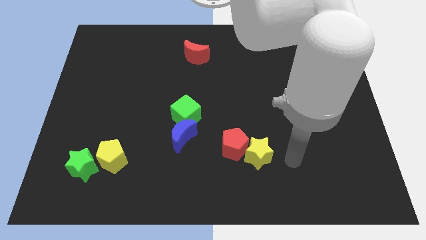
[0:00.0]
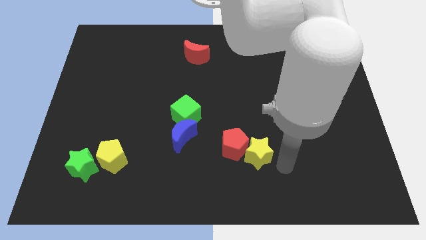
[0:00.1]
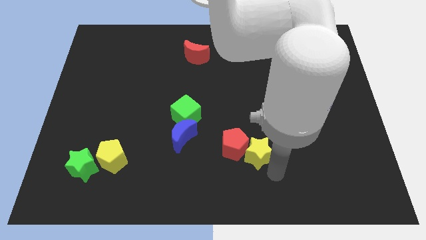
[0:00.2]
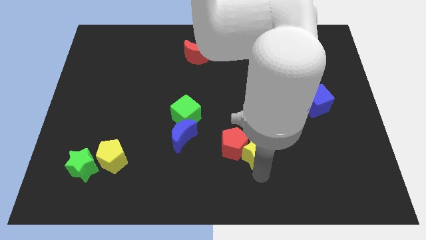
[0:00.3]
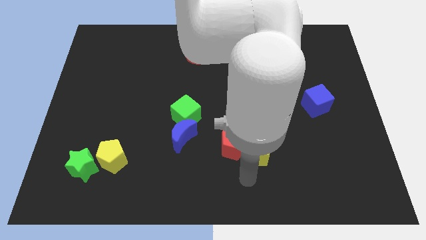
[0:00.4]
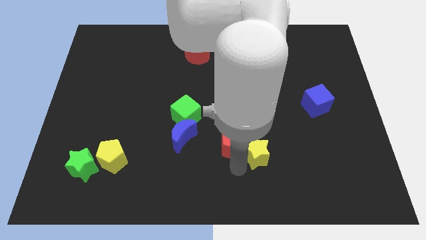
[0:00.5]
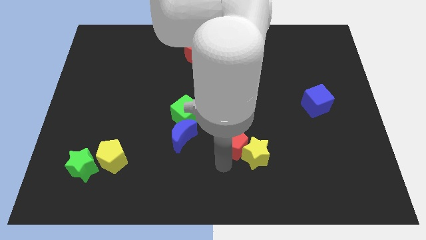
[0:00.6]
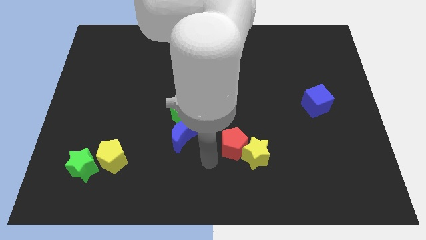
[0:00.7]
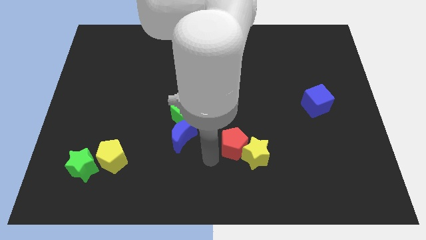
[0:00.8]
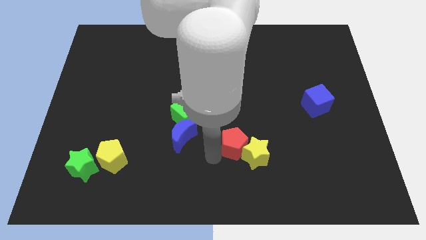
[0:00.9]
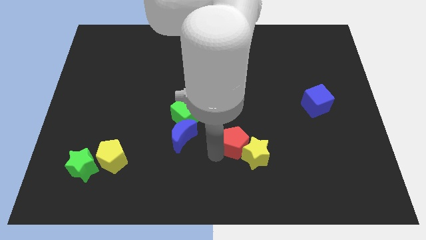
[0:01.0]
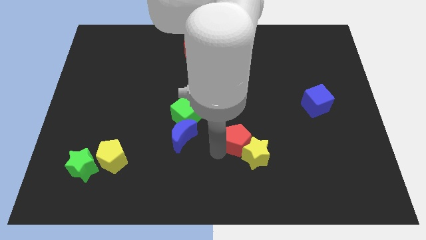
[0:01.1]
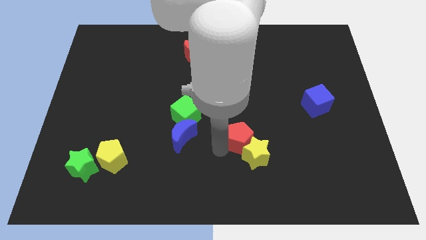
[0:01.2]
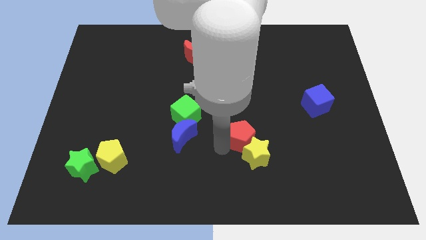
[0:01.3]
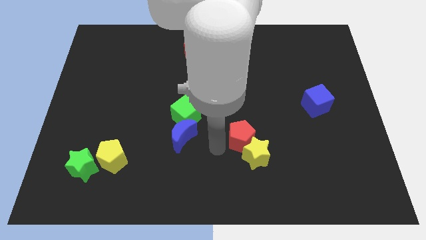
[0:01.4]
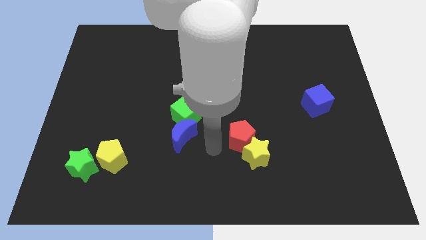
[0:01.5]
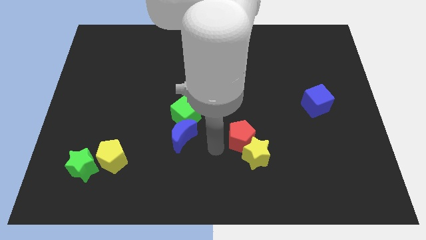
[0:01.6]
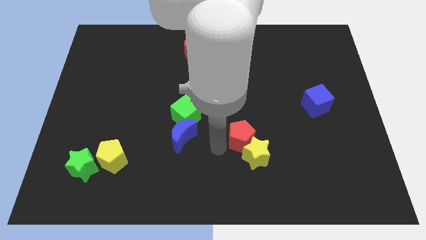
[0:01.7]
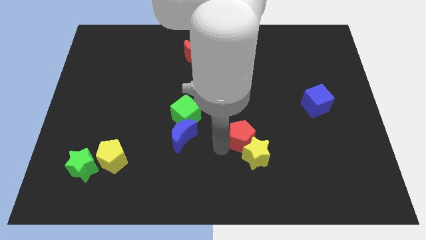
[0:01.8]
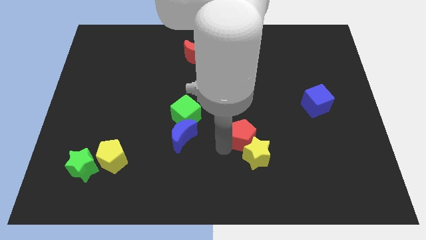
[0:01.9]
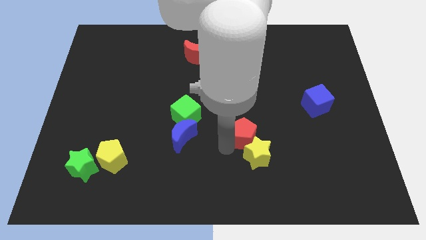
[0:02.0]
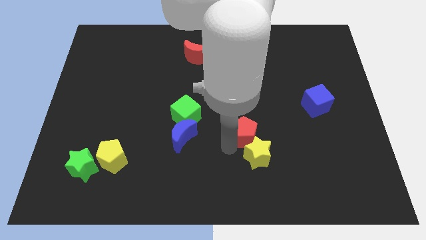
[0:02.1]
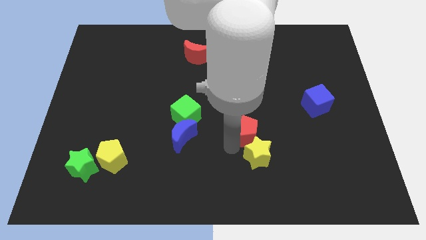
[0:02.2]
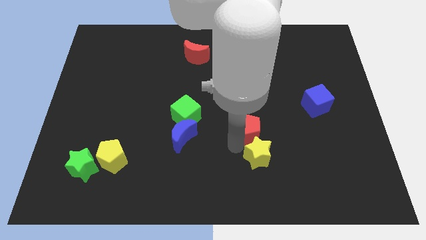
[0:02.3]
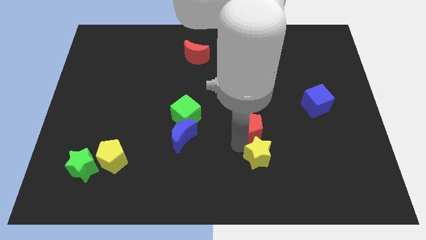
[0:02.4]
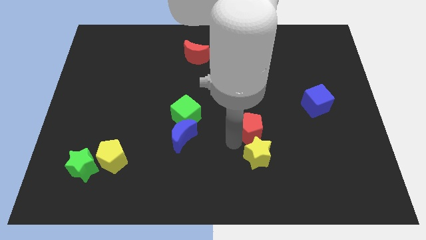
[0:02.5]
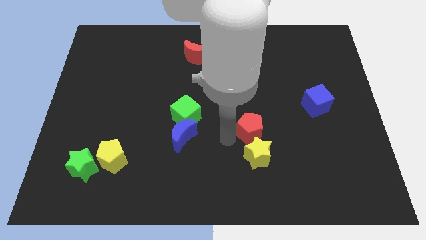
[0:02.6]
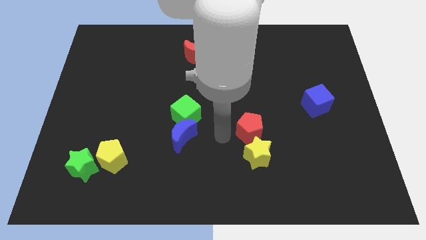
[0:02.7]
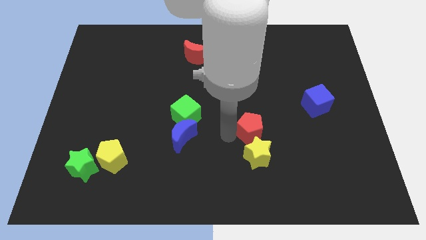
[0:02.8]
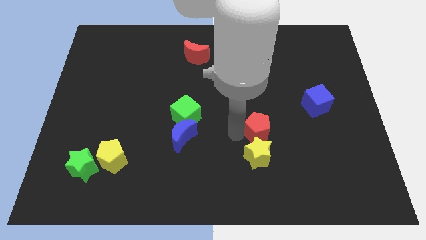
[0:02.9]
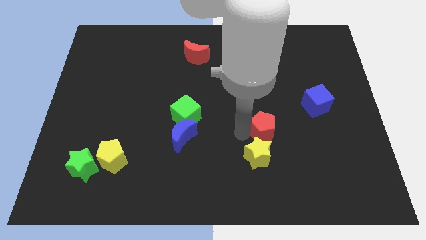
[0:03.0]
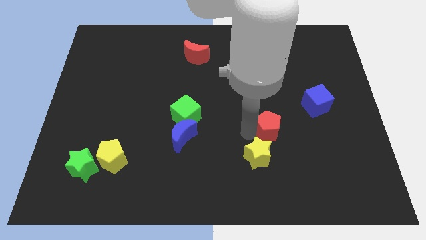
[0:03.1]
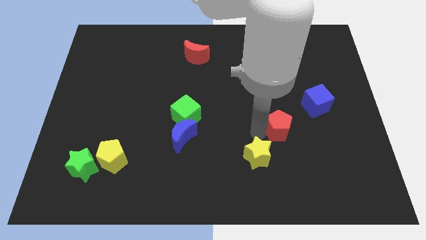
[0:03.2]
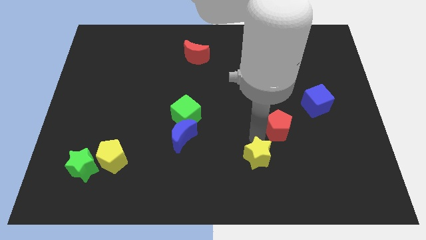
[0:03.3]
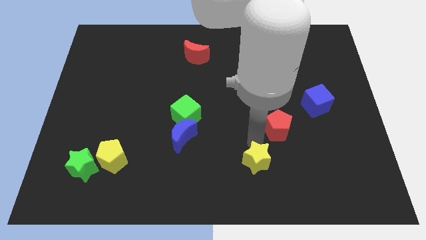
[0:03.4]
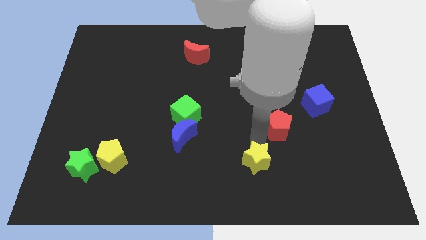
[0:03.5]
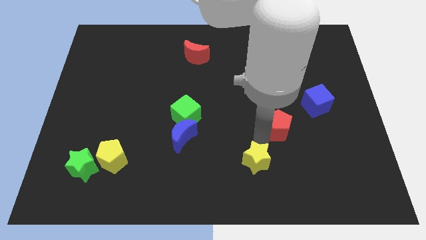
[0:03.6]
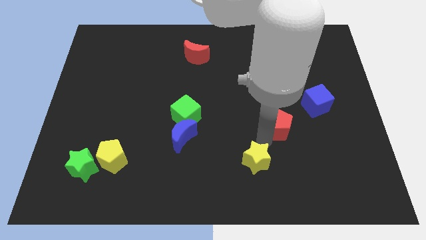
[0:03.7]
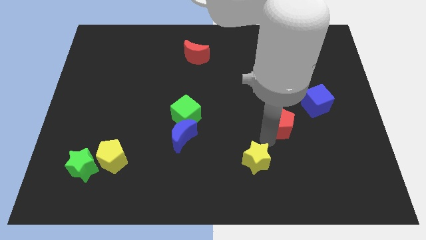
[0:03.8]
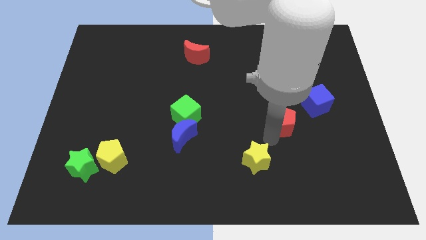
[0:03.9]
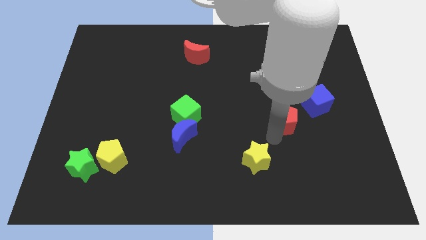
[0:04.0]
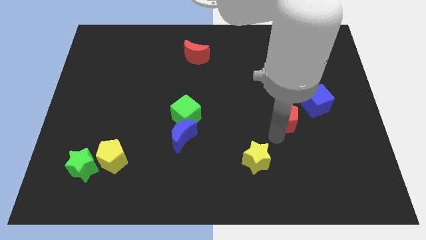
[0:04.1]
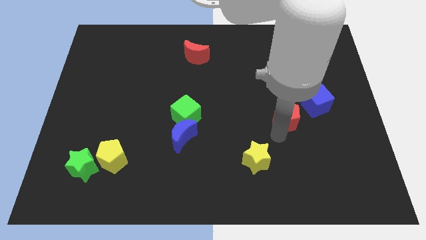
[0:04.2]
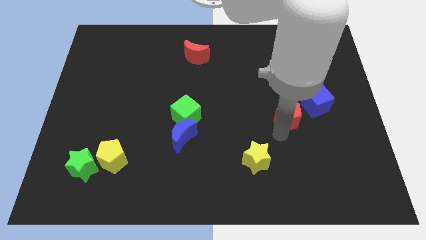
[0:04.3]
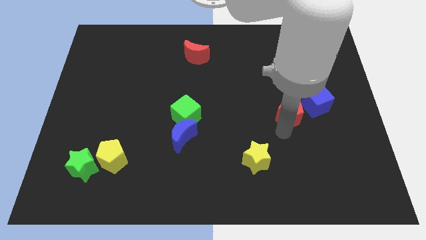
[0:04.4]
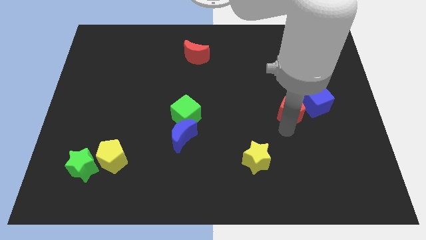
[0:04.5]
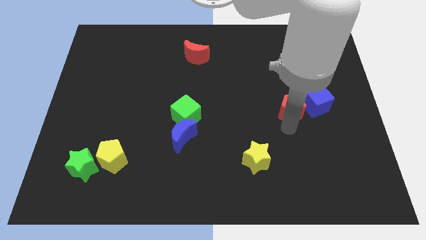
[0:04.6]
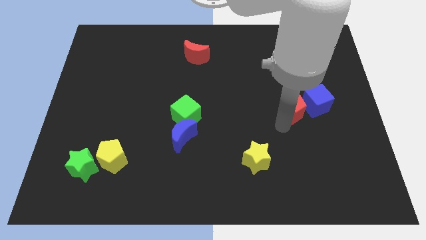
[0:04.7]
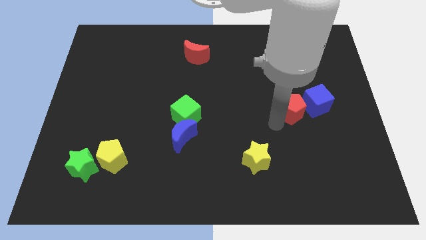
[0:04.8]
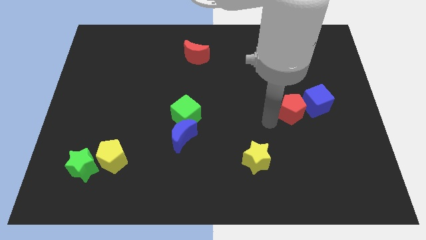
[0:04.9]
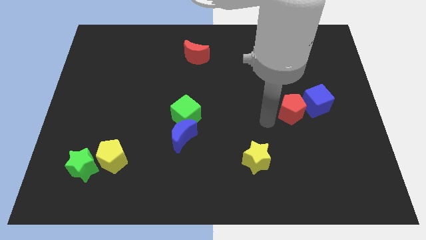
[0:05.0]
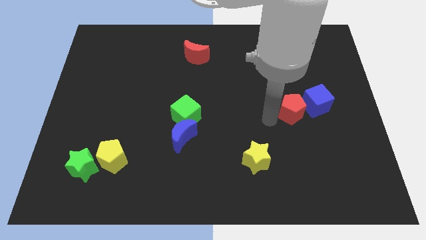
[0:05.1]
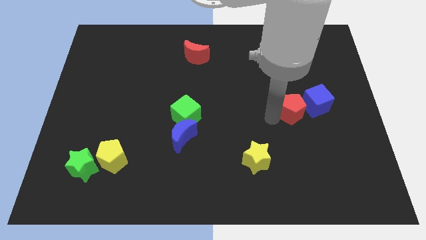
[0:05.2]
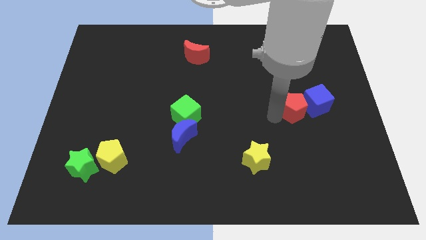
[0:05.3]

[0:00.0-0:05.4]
push the red pentagon close to the blue cube

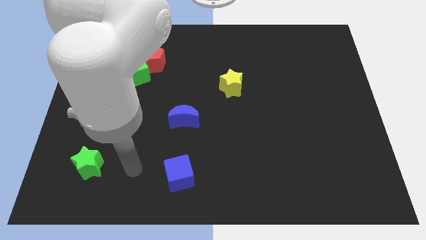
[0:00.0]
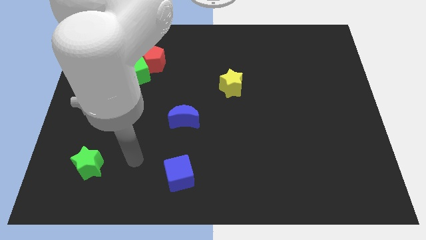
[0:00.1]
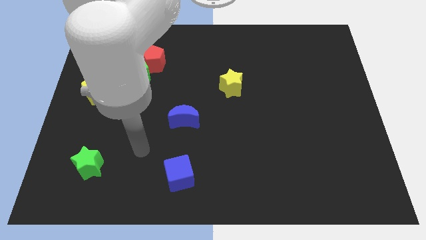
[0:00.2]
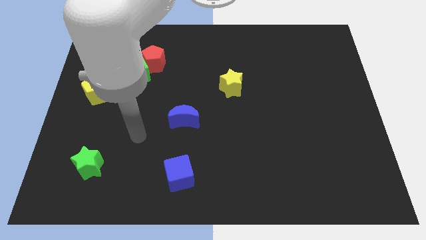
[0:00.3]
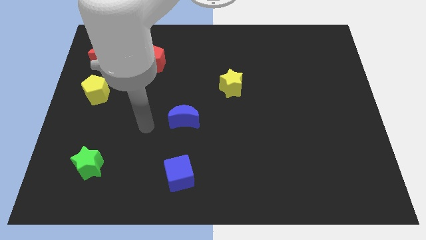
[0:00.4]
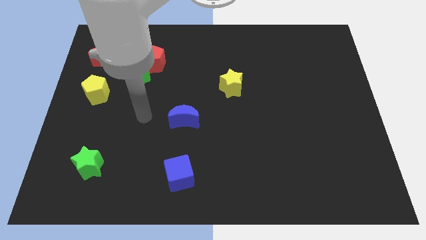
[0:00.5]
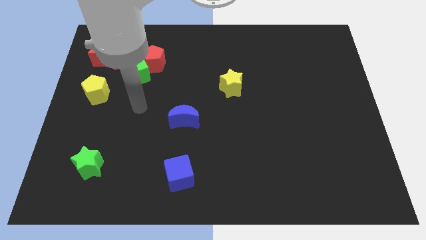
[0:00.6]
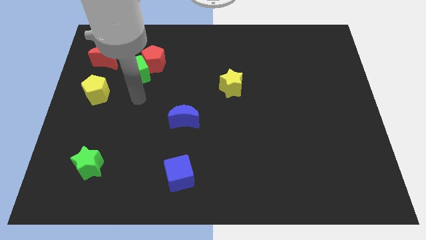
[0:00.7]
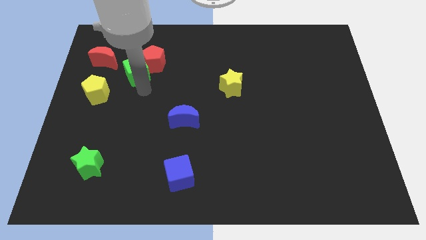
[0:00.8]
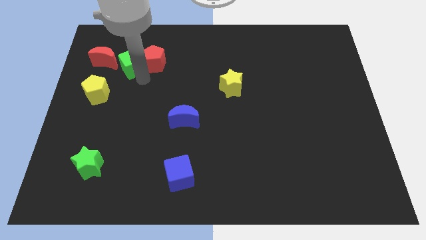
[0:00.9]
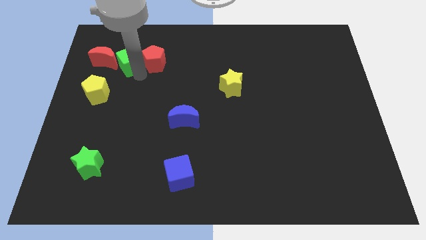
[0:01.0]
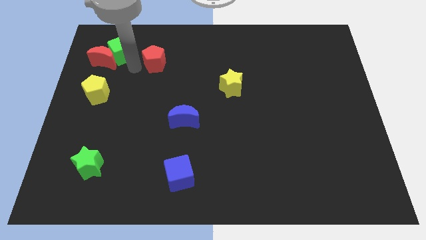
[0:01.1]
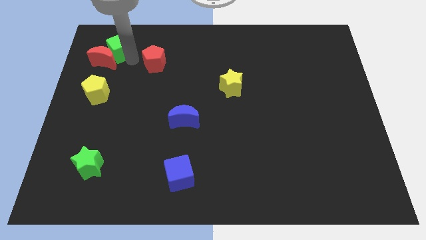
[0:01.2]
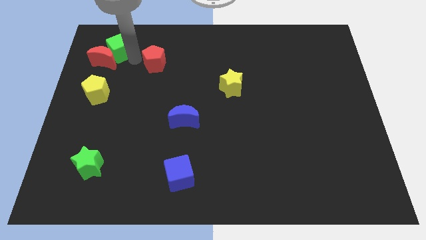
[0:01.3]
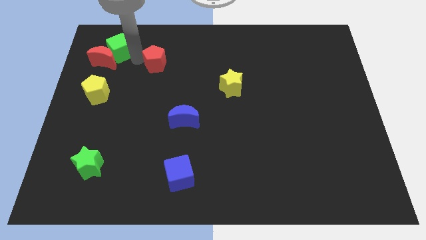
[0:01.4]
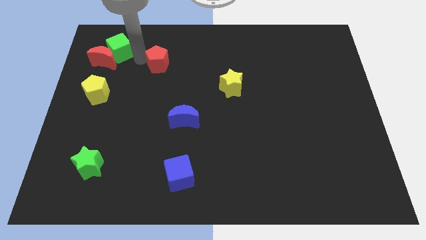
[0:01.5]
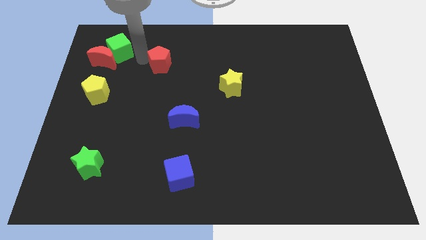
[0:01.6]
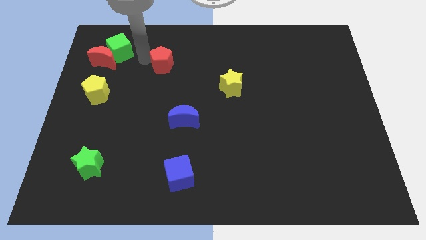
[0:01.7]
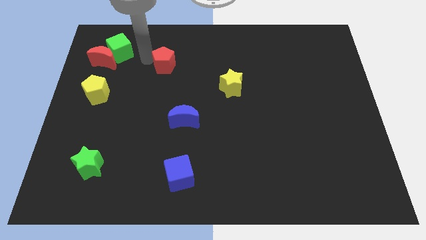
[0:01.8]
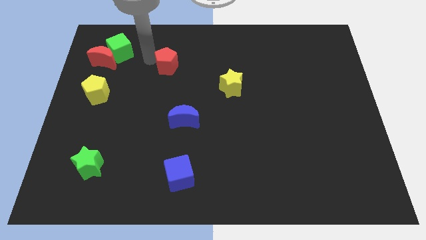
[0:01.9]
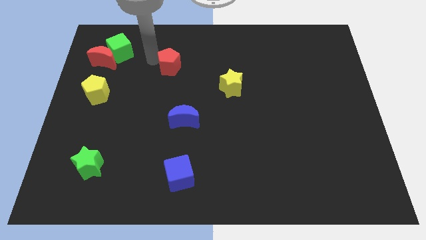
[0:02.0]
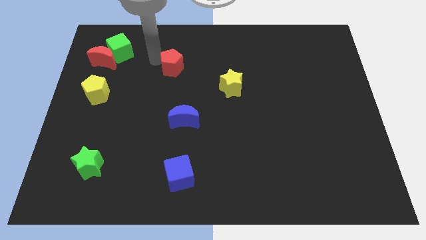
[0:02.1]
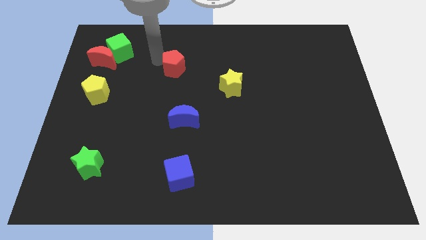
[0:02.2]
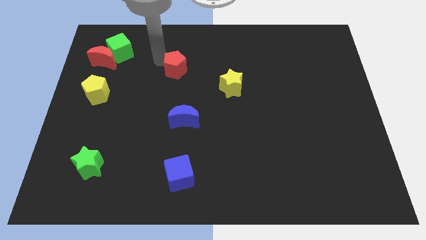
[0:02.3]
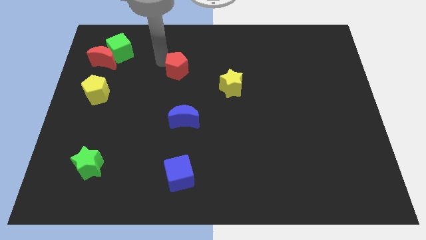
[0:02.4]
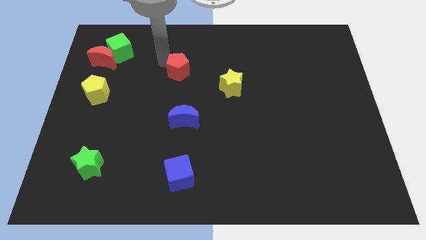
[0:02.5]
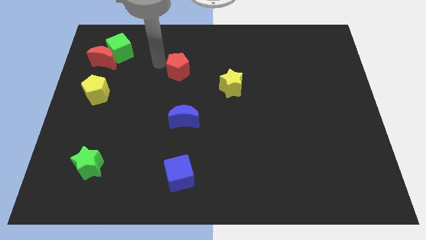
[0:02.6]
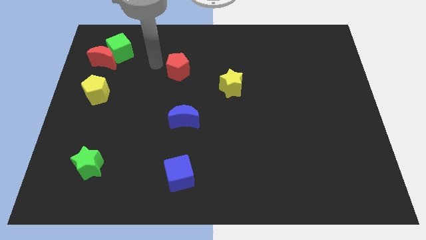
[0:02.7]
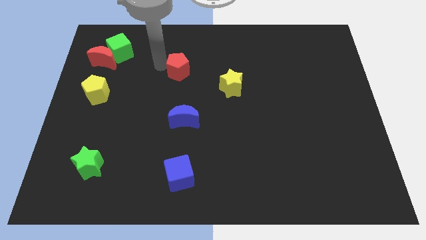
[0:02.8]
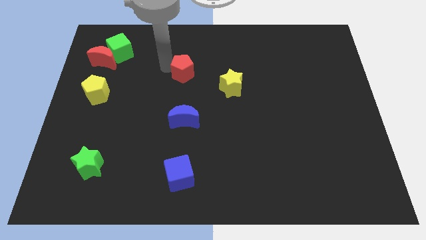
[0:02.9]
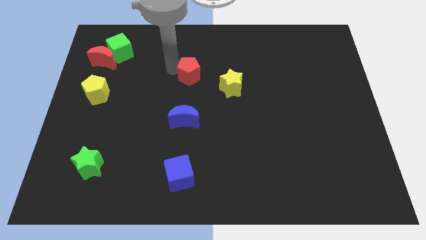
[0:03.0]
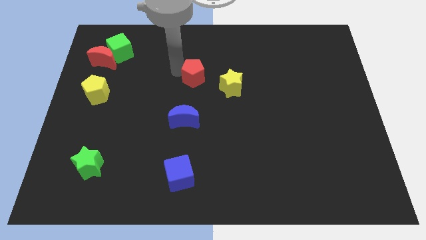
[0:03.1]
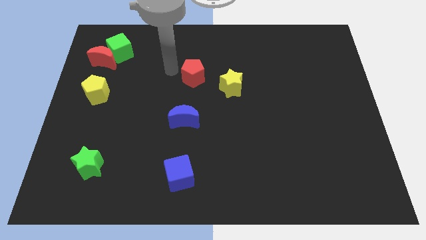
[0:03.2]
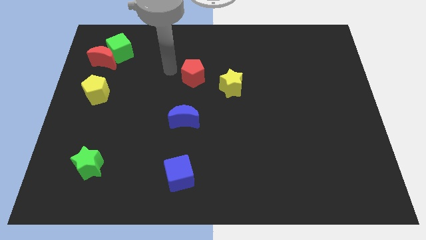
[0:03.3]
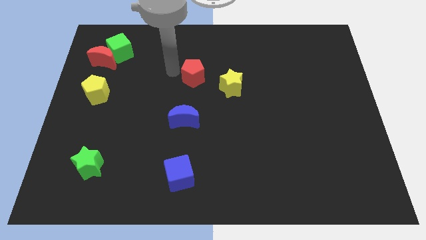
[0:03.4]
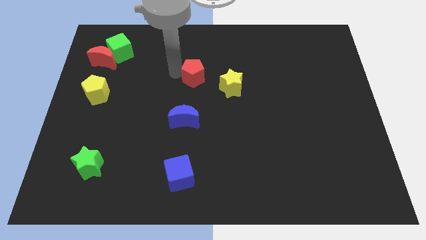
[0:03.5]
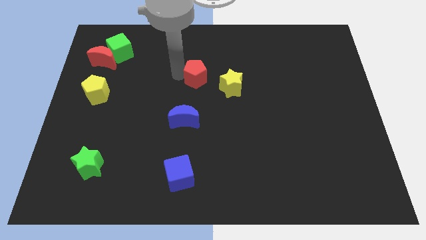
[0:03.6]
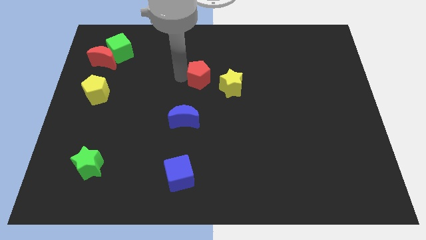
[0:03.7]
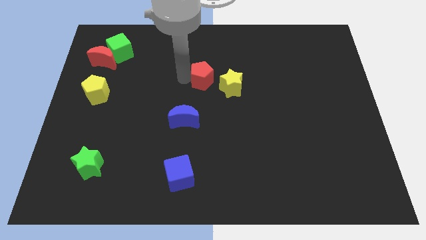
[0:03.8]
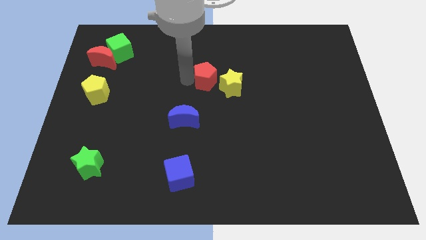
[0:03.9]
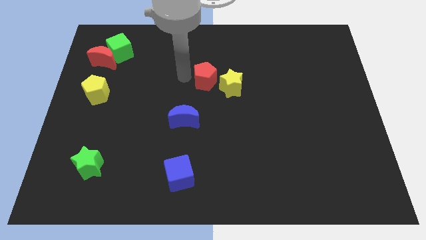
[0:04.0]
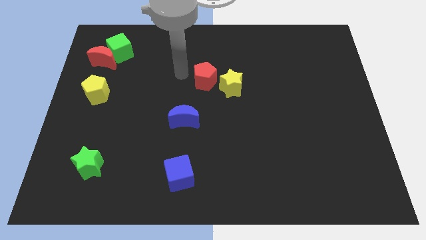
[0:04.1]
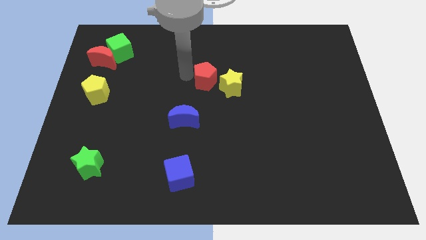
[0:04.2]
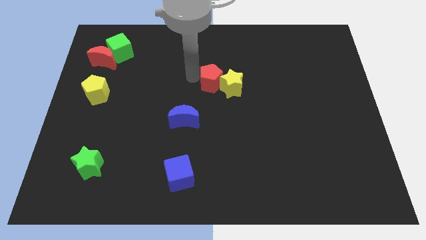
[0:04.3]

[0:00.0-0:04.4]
slide the red pentagon towards the yellow star
